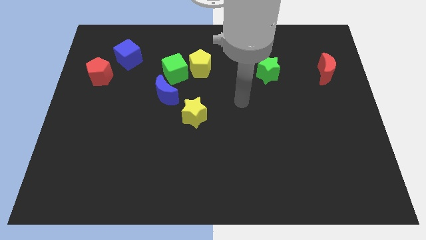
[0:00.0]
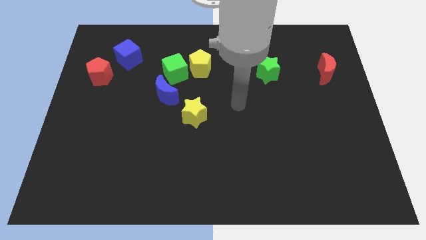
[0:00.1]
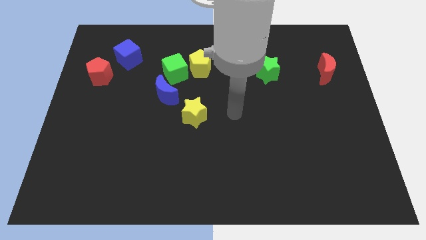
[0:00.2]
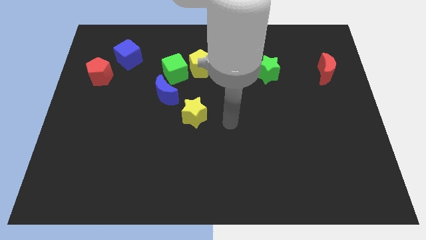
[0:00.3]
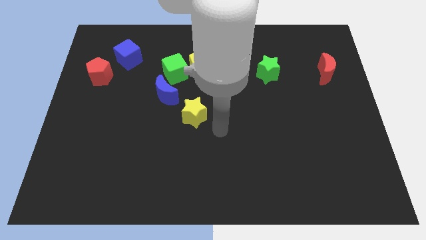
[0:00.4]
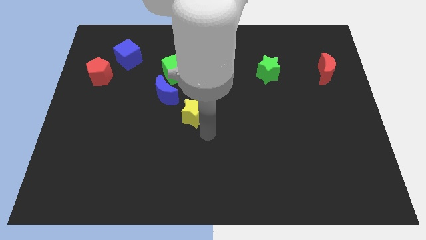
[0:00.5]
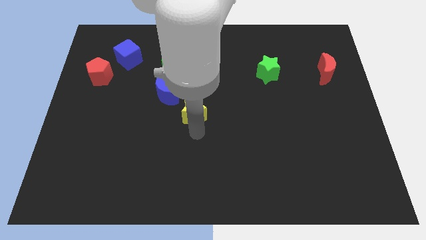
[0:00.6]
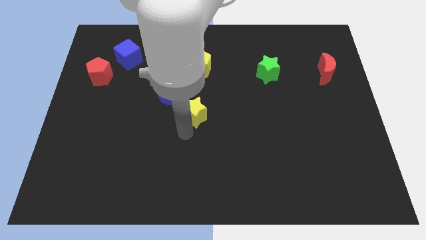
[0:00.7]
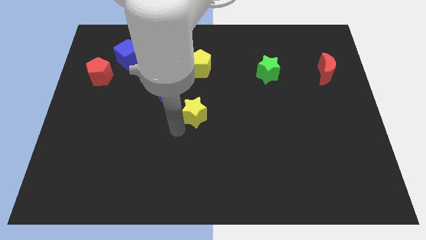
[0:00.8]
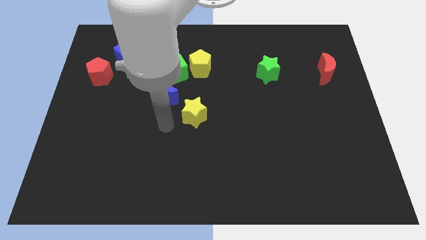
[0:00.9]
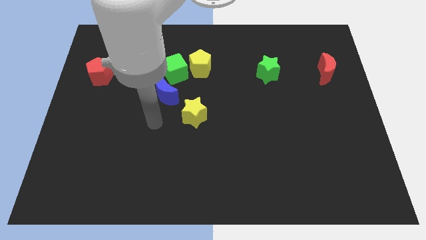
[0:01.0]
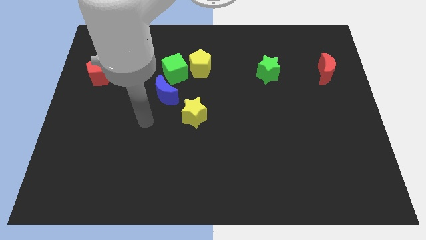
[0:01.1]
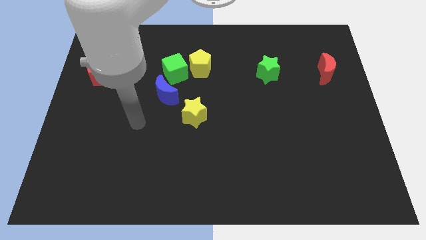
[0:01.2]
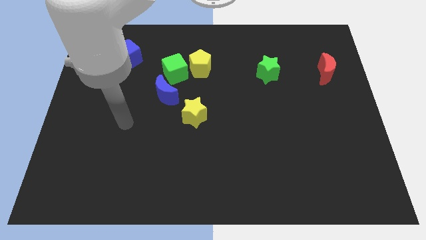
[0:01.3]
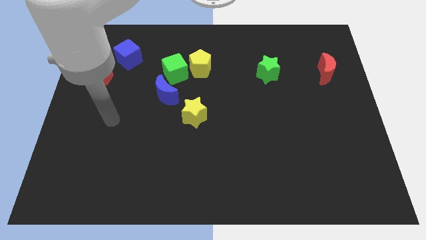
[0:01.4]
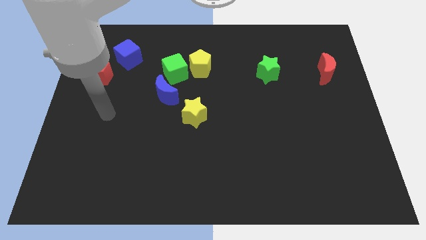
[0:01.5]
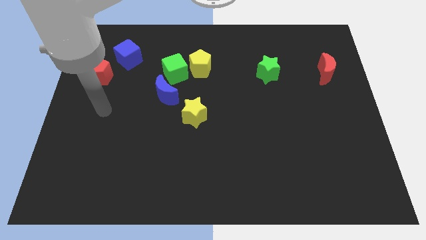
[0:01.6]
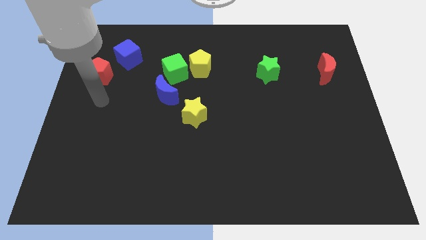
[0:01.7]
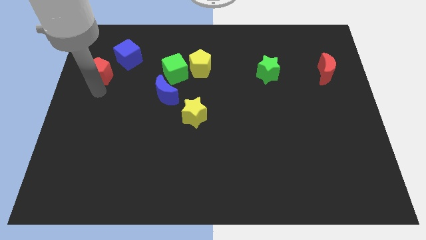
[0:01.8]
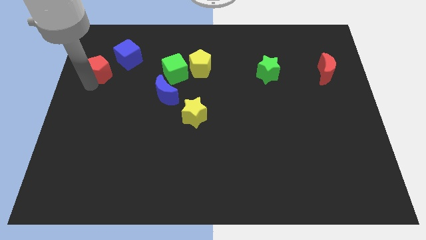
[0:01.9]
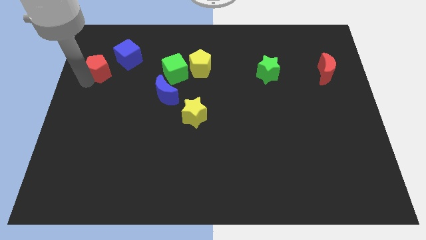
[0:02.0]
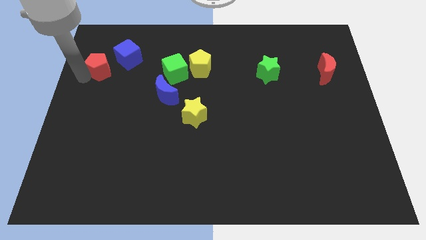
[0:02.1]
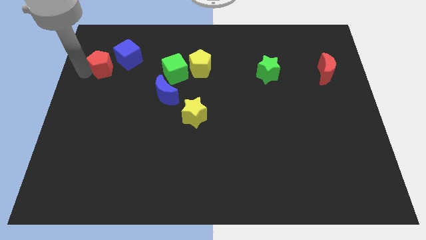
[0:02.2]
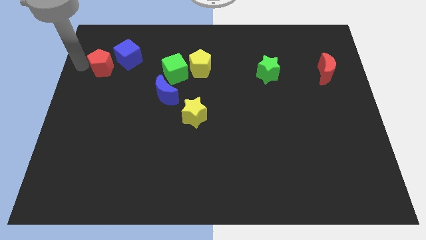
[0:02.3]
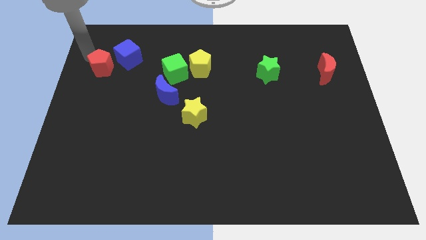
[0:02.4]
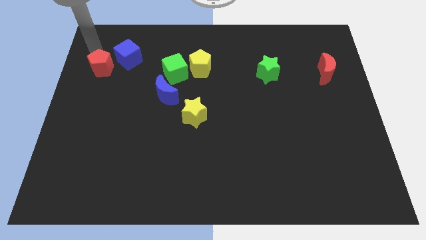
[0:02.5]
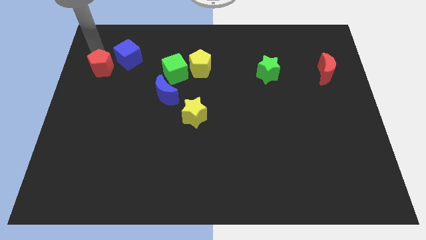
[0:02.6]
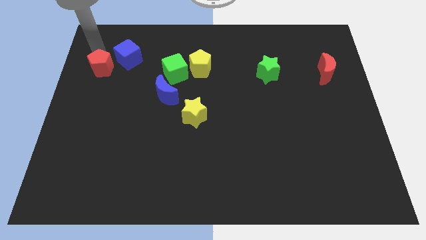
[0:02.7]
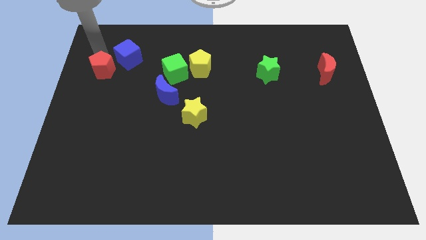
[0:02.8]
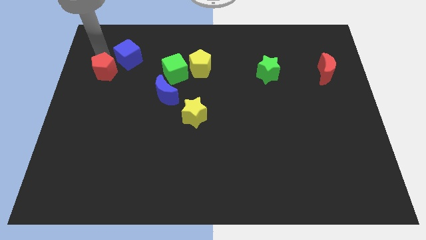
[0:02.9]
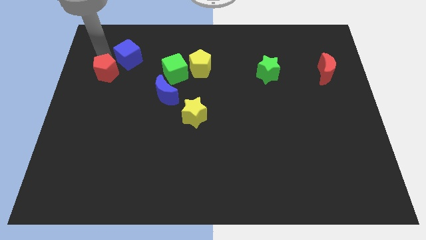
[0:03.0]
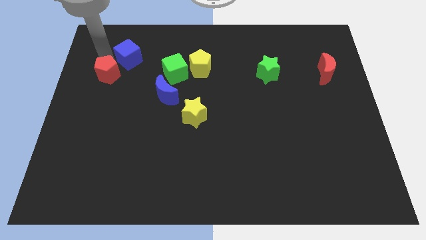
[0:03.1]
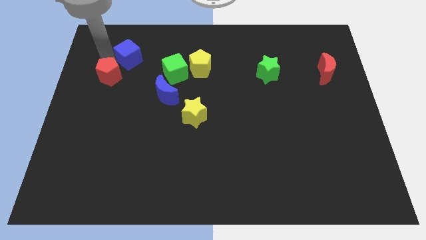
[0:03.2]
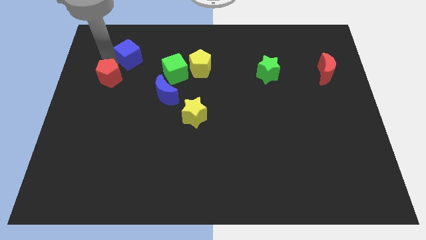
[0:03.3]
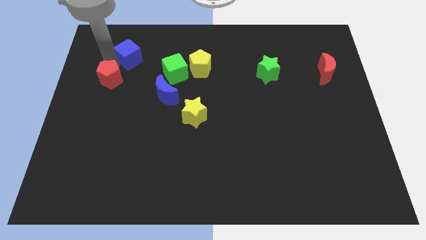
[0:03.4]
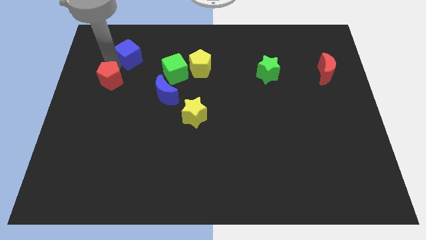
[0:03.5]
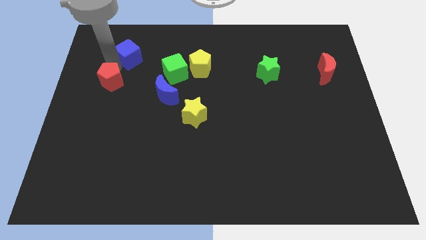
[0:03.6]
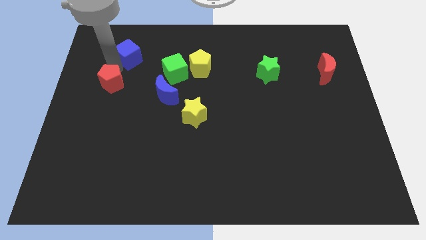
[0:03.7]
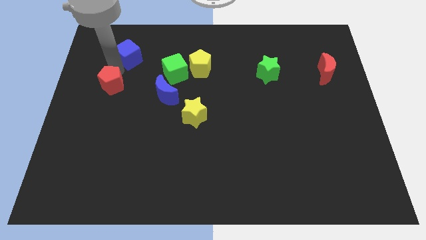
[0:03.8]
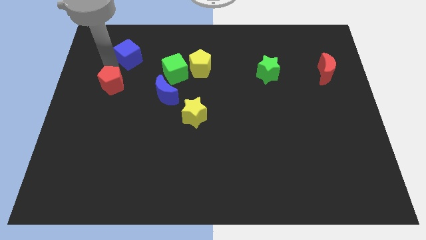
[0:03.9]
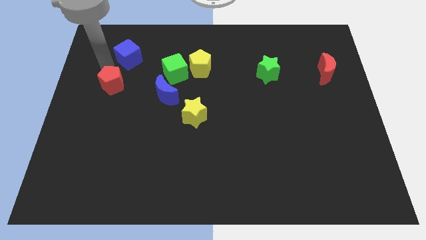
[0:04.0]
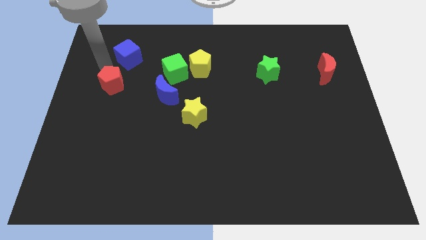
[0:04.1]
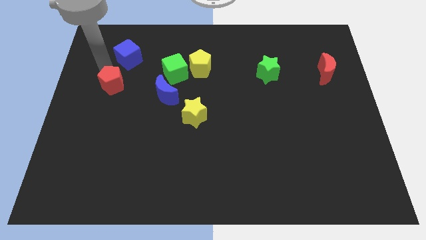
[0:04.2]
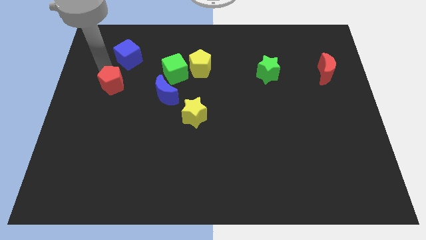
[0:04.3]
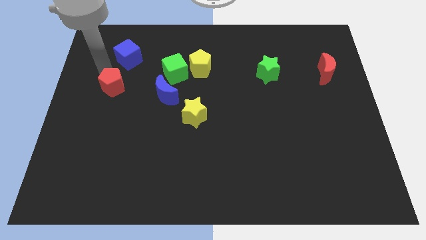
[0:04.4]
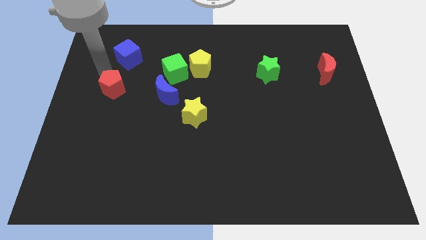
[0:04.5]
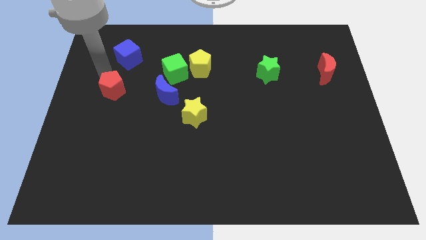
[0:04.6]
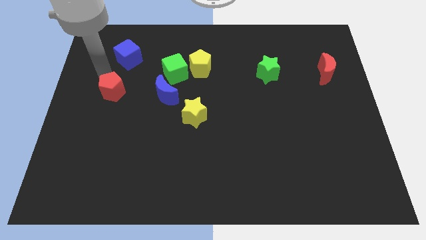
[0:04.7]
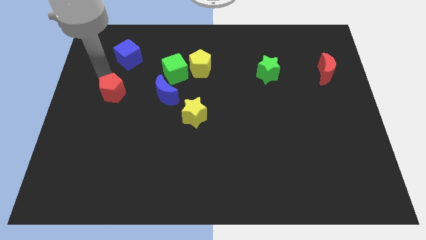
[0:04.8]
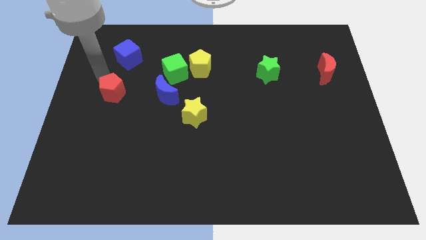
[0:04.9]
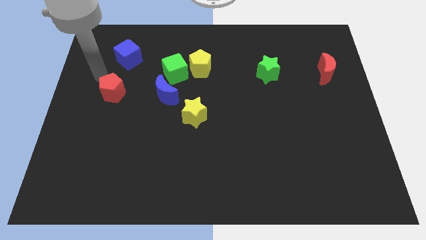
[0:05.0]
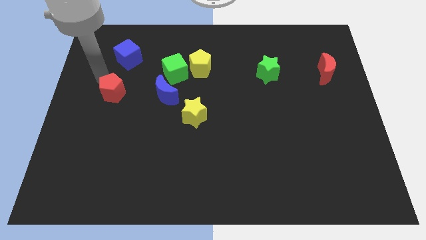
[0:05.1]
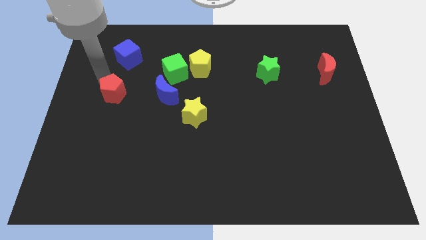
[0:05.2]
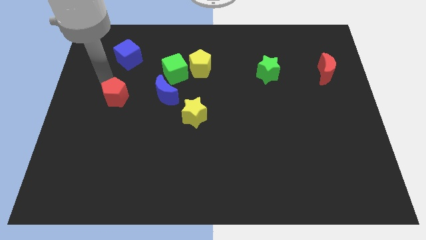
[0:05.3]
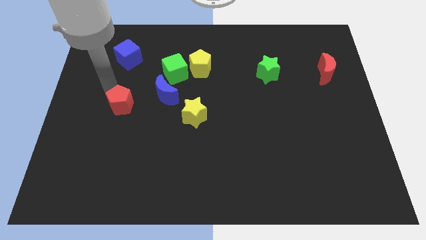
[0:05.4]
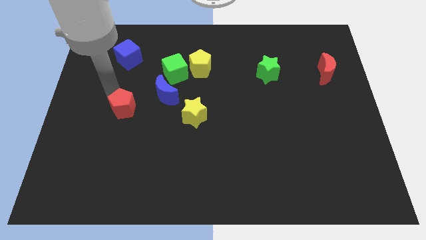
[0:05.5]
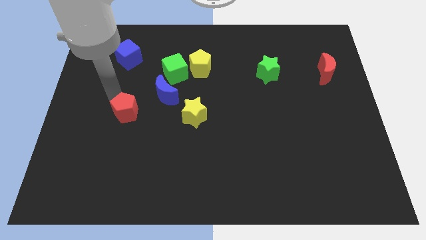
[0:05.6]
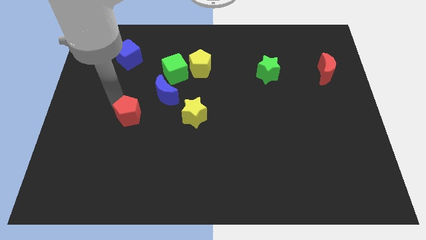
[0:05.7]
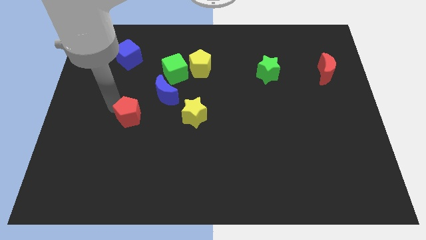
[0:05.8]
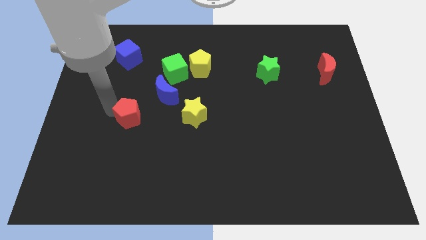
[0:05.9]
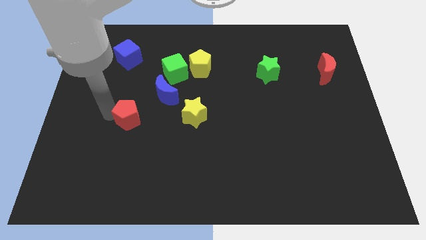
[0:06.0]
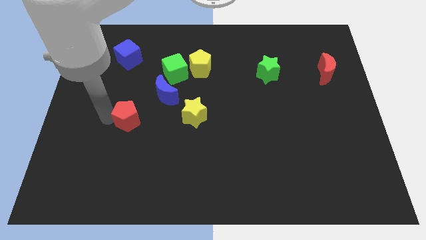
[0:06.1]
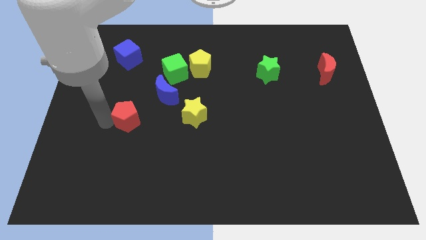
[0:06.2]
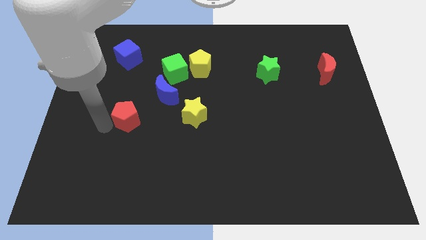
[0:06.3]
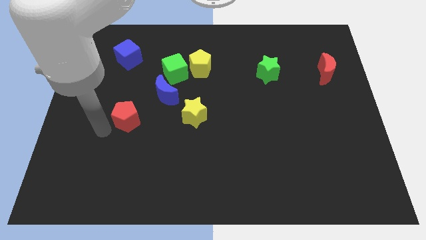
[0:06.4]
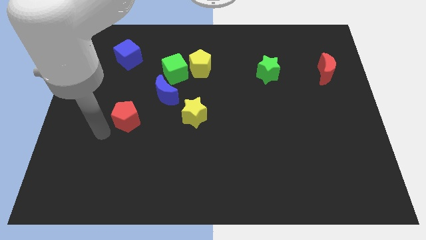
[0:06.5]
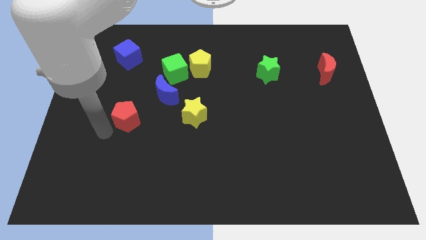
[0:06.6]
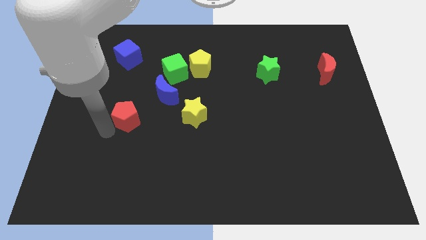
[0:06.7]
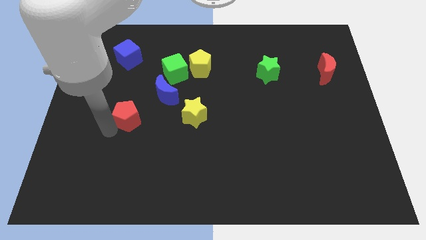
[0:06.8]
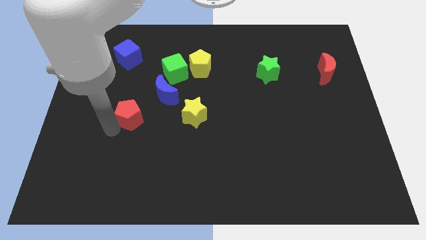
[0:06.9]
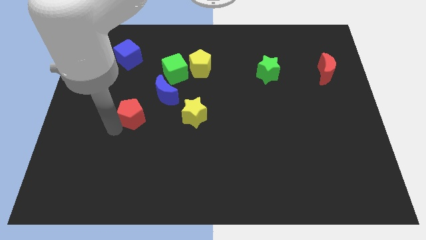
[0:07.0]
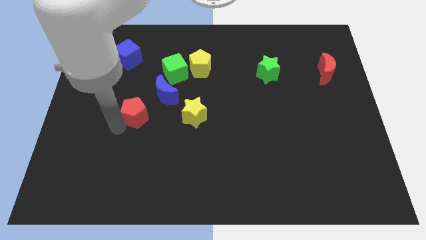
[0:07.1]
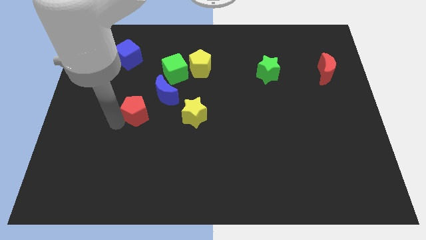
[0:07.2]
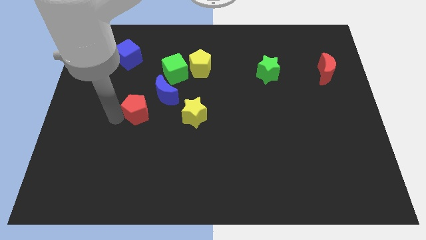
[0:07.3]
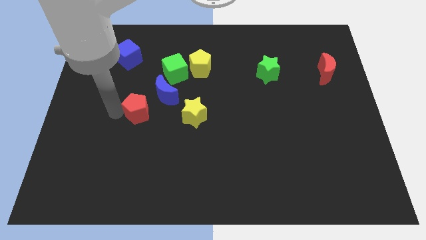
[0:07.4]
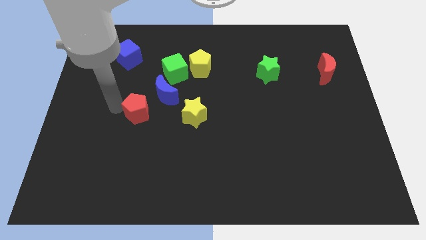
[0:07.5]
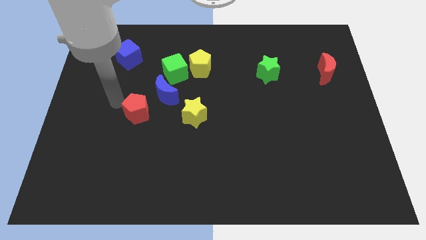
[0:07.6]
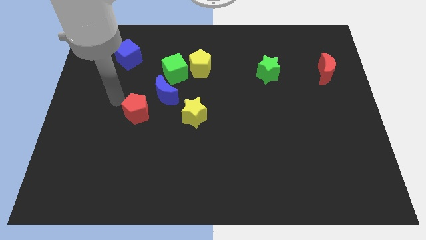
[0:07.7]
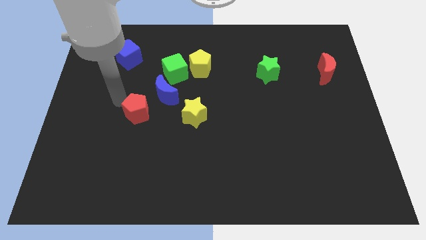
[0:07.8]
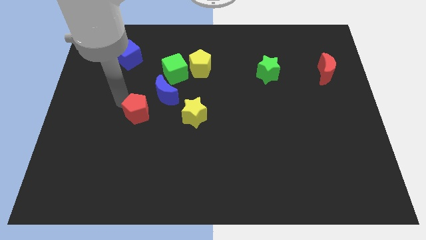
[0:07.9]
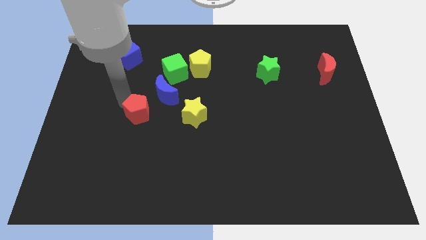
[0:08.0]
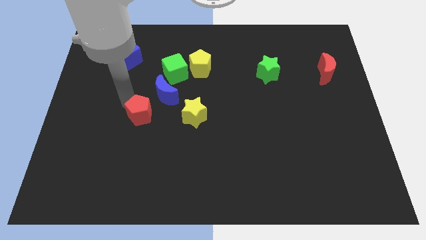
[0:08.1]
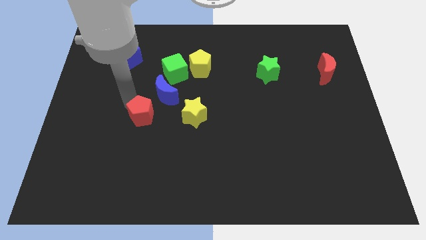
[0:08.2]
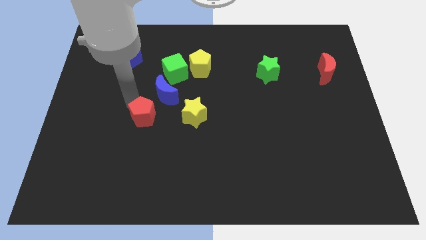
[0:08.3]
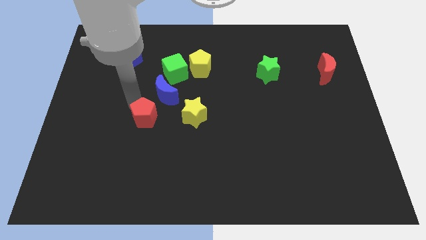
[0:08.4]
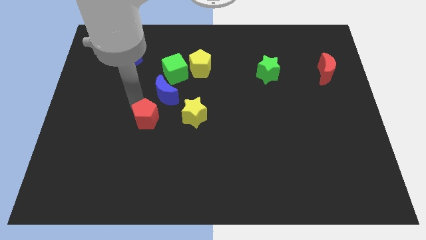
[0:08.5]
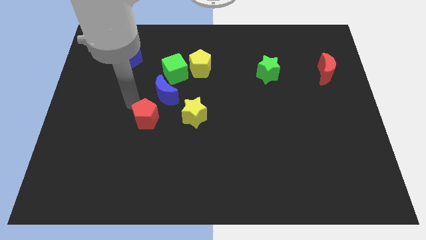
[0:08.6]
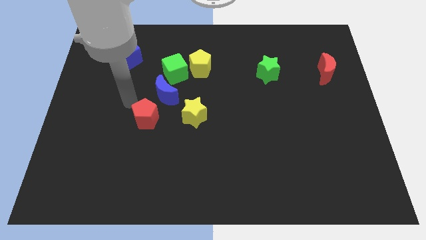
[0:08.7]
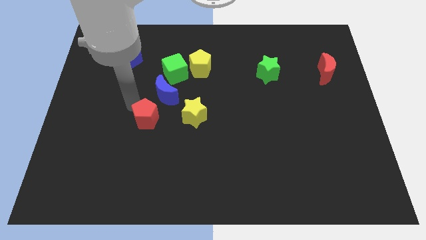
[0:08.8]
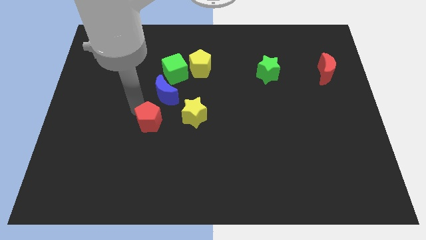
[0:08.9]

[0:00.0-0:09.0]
slide the red pentagon downwards and to the right
